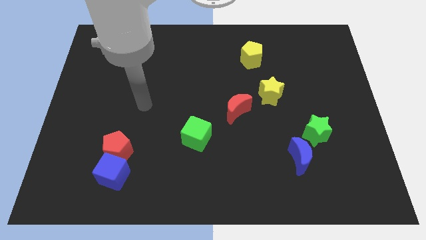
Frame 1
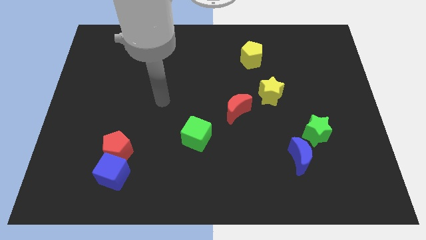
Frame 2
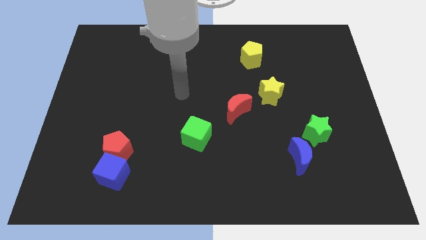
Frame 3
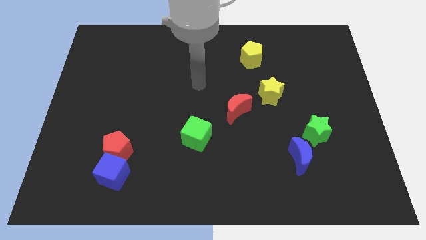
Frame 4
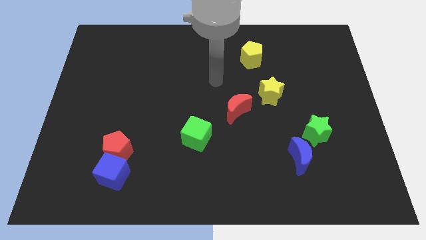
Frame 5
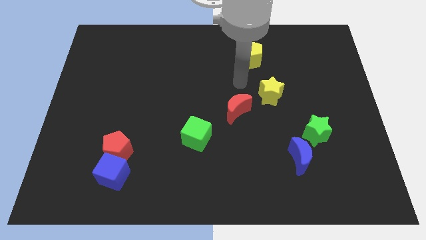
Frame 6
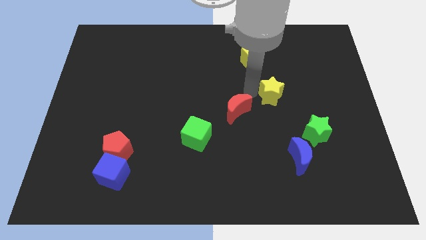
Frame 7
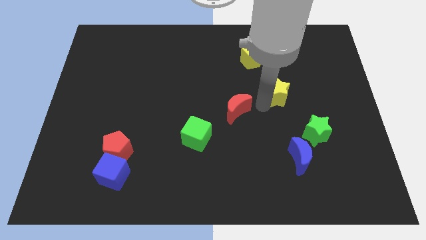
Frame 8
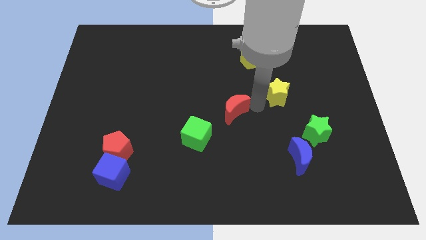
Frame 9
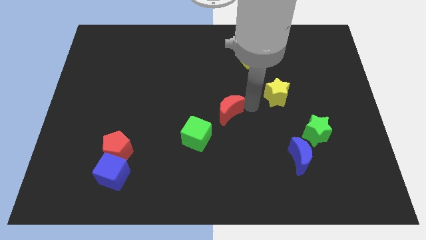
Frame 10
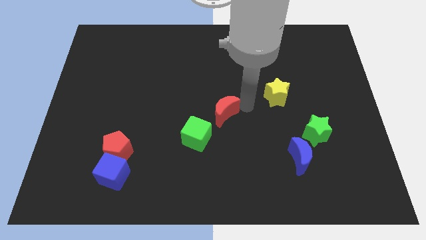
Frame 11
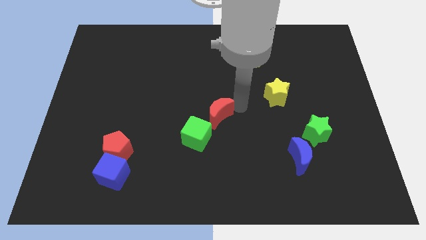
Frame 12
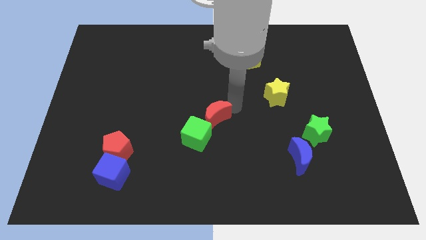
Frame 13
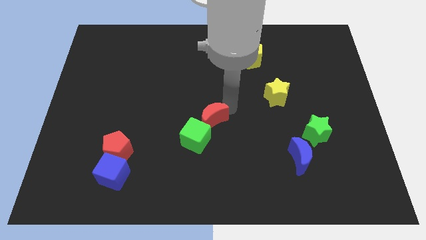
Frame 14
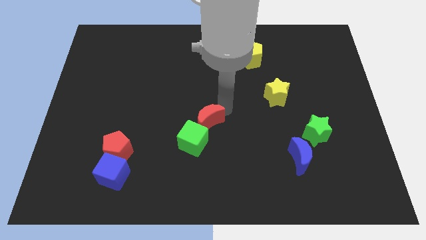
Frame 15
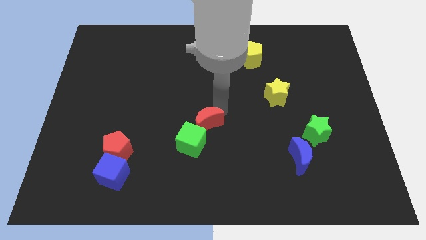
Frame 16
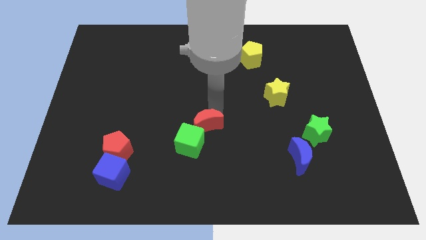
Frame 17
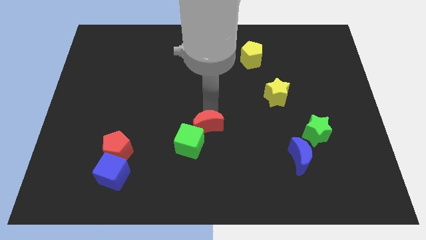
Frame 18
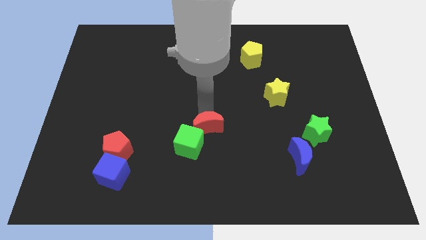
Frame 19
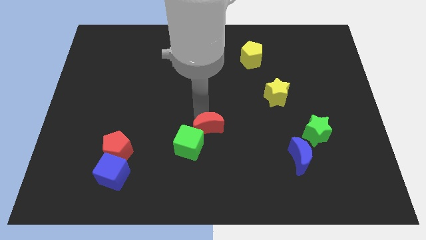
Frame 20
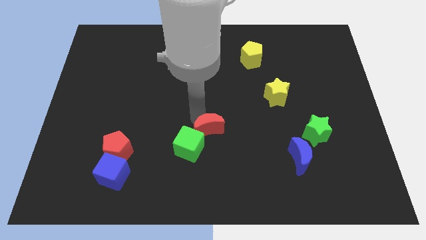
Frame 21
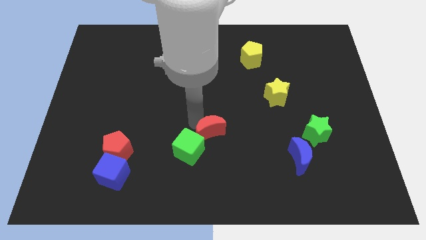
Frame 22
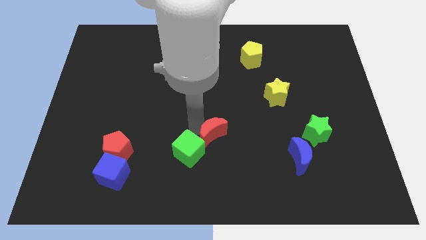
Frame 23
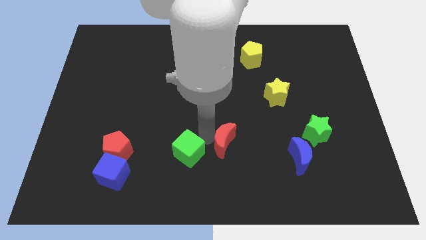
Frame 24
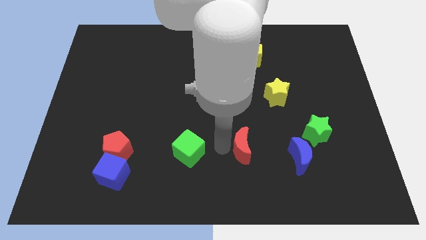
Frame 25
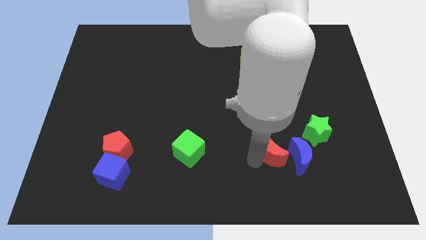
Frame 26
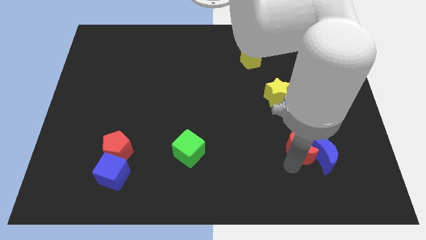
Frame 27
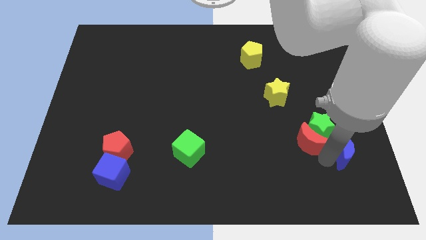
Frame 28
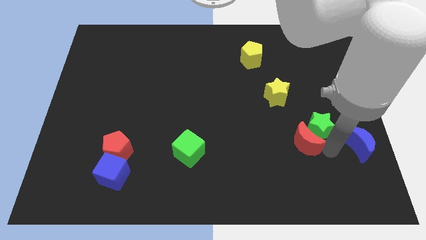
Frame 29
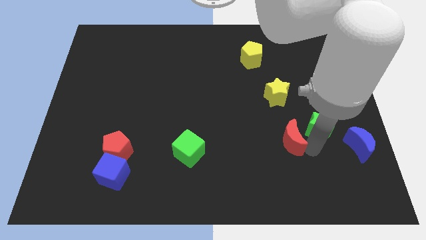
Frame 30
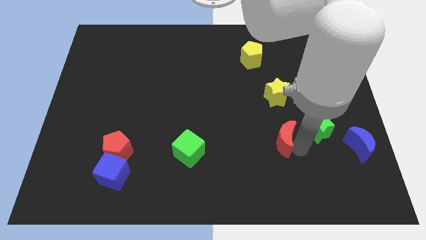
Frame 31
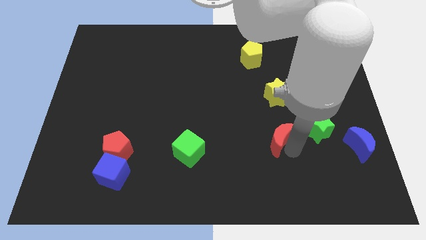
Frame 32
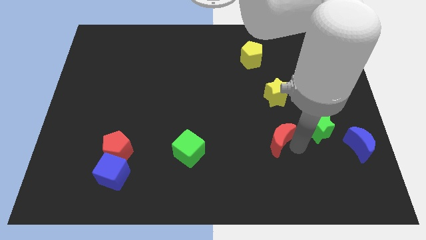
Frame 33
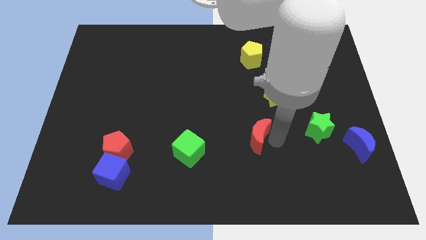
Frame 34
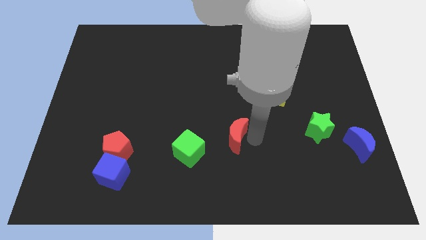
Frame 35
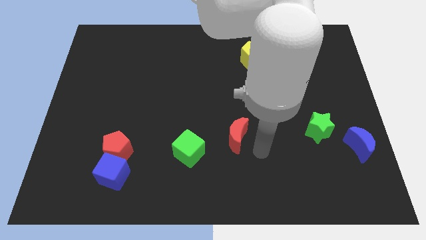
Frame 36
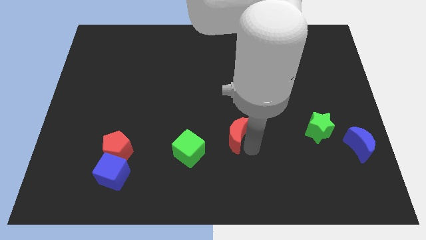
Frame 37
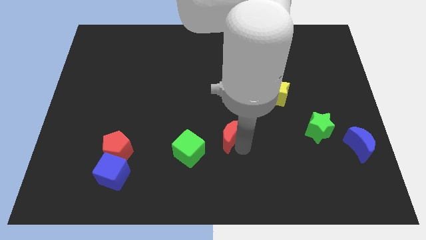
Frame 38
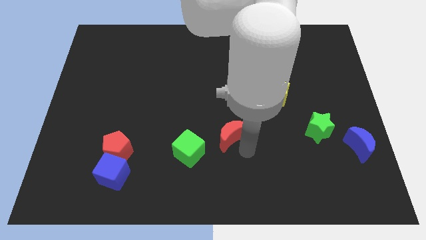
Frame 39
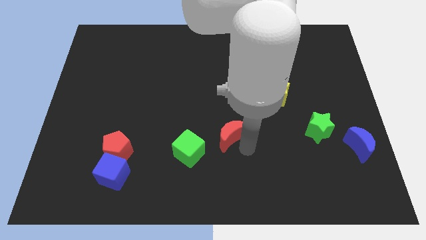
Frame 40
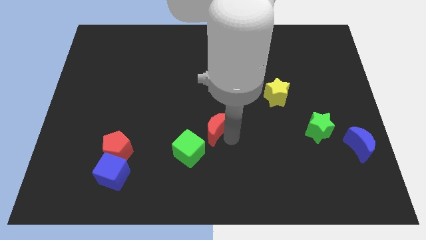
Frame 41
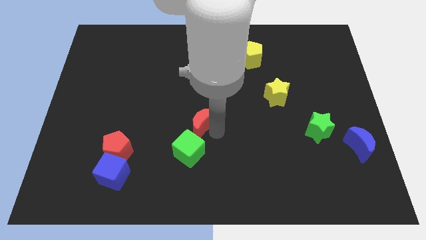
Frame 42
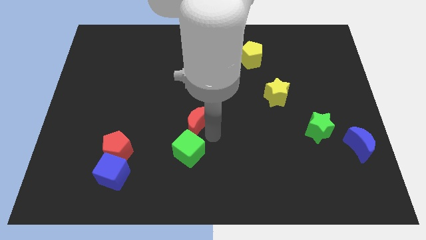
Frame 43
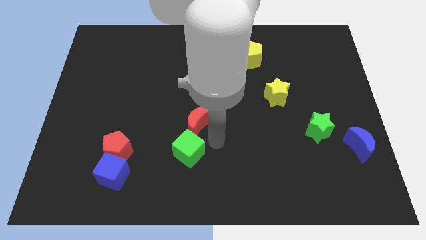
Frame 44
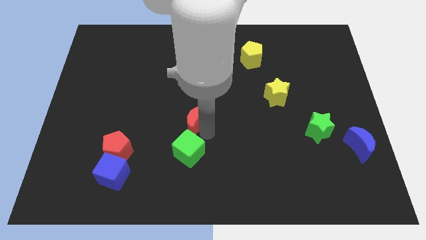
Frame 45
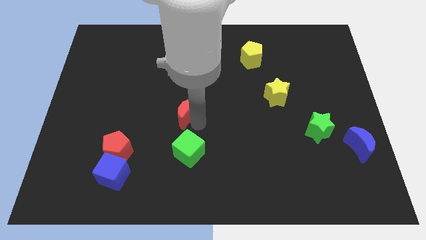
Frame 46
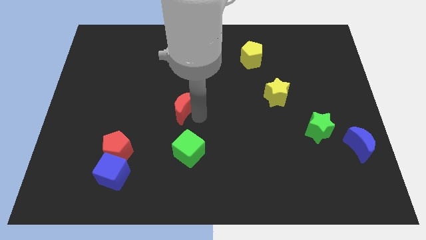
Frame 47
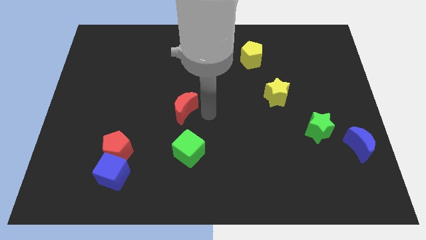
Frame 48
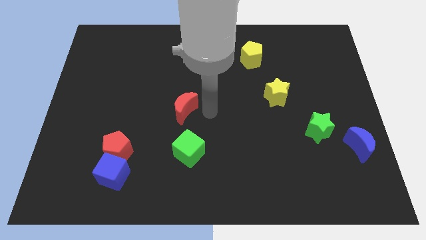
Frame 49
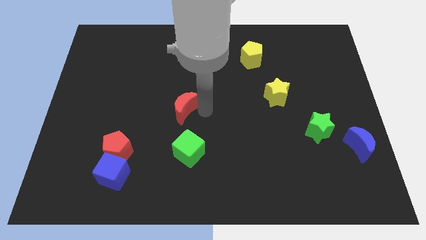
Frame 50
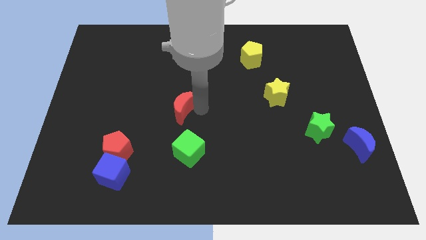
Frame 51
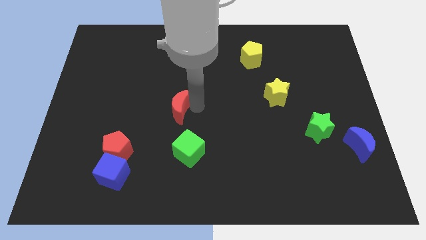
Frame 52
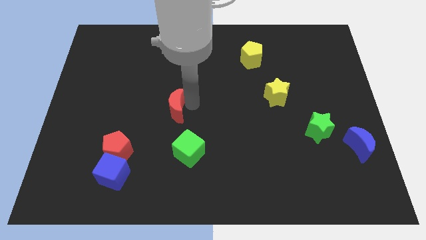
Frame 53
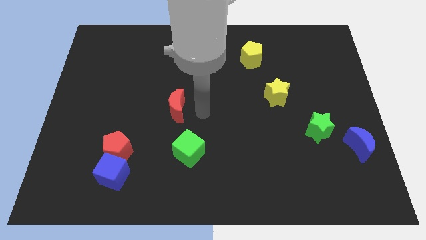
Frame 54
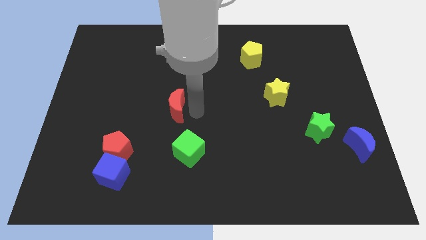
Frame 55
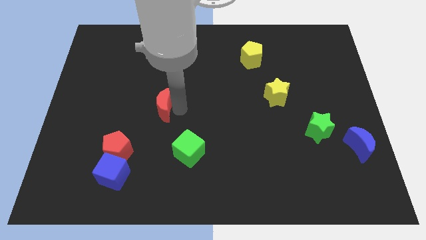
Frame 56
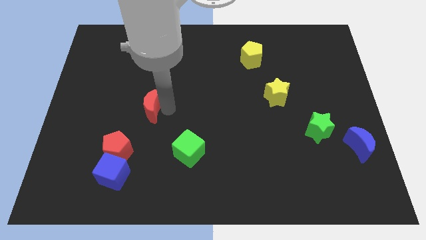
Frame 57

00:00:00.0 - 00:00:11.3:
move the red moon left

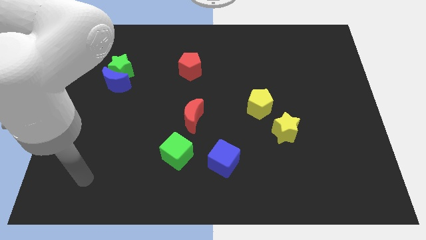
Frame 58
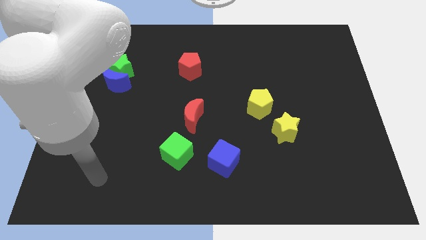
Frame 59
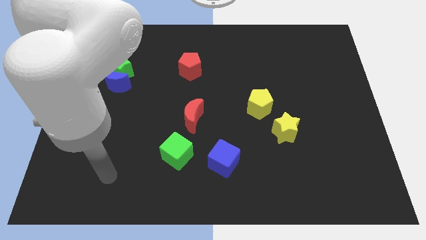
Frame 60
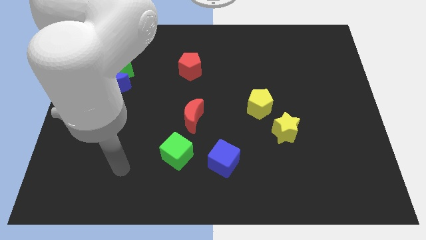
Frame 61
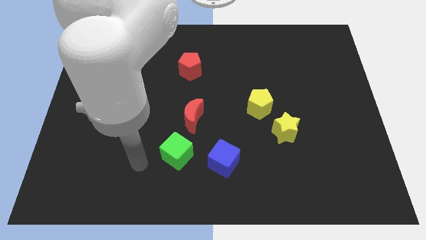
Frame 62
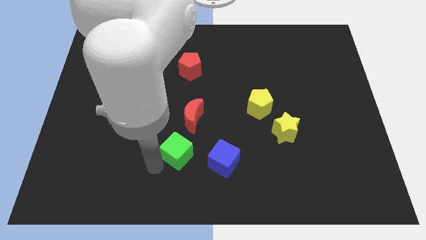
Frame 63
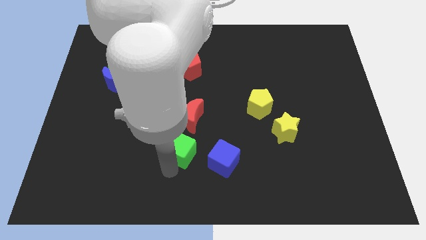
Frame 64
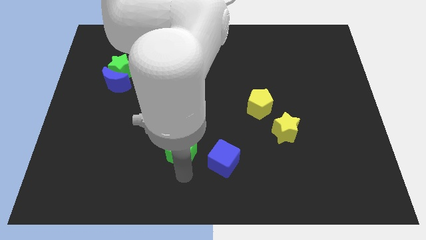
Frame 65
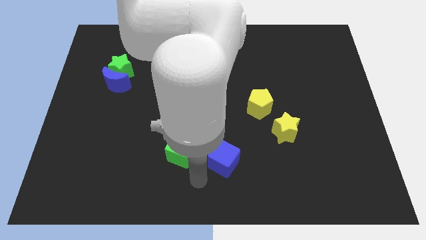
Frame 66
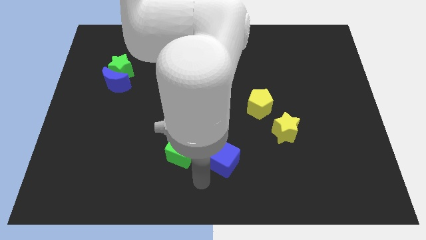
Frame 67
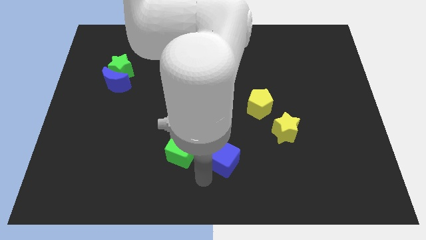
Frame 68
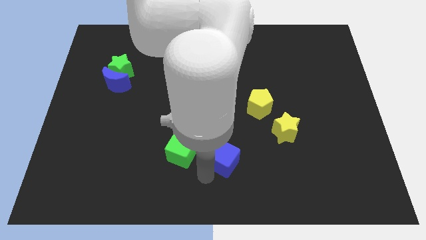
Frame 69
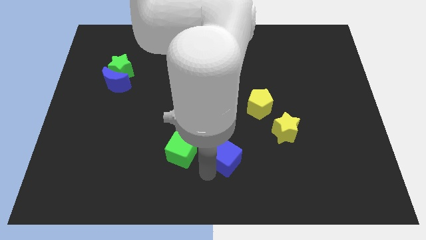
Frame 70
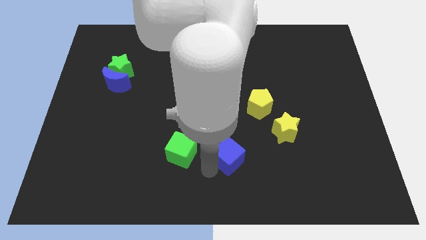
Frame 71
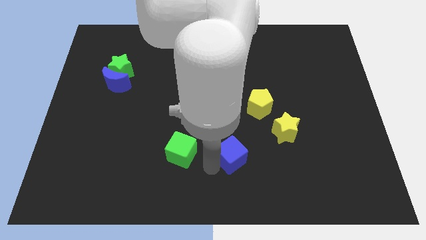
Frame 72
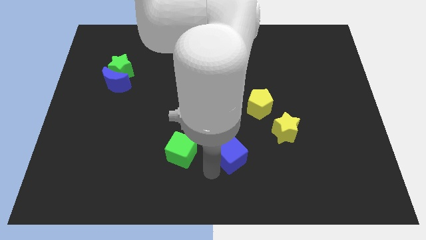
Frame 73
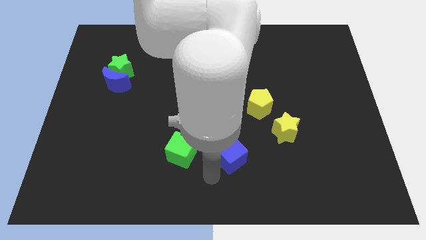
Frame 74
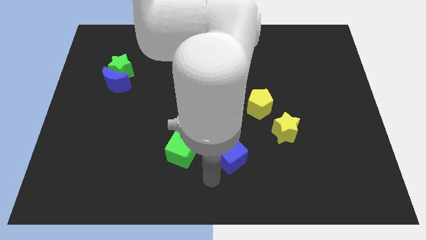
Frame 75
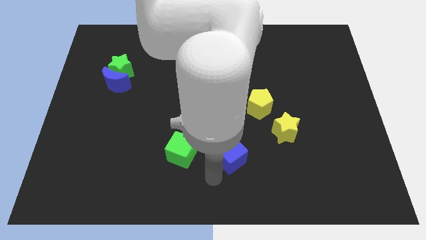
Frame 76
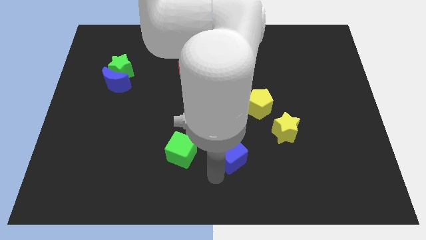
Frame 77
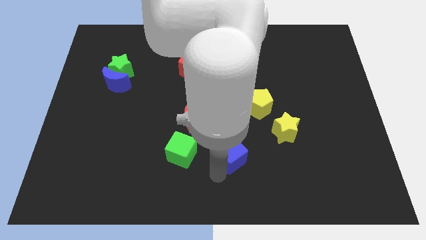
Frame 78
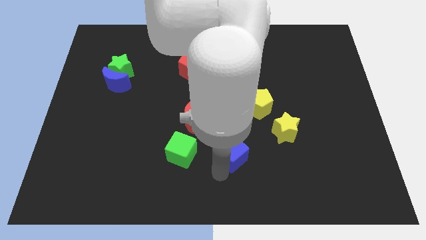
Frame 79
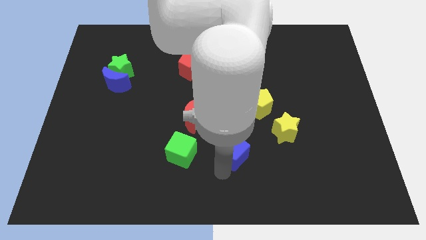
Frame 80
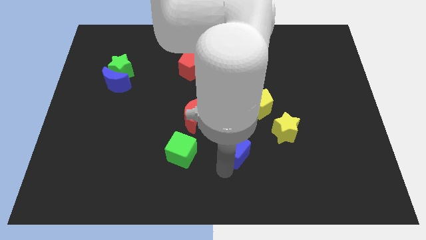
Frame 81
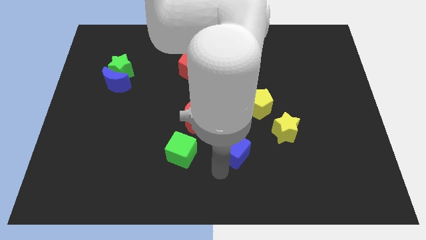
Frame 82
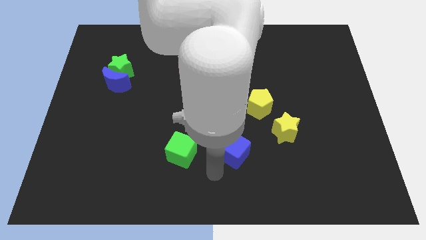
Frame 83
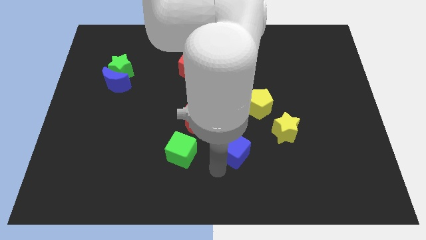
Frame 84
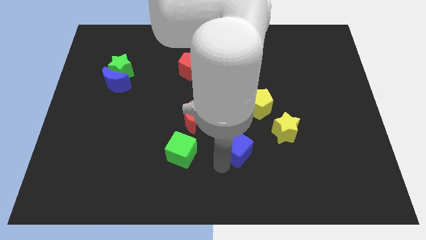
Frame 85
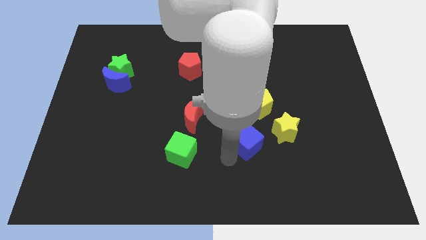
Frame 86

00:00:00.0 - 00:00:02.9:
slightly move the blue cube up and then to the right
